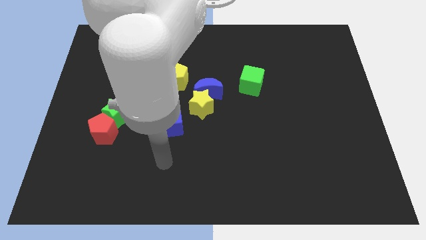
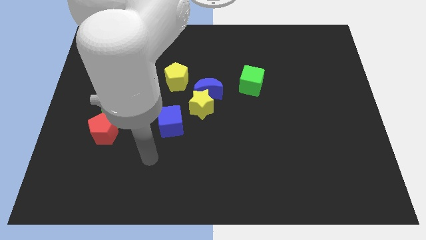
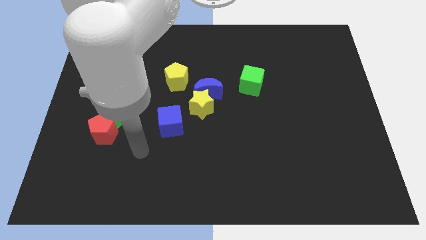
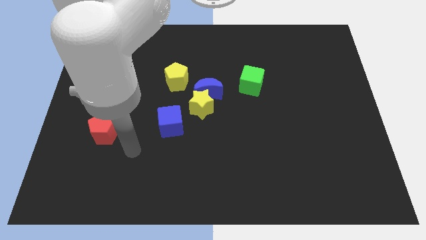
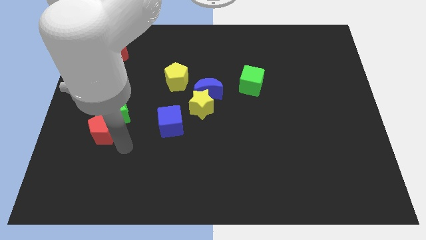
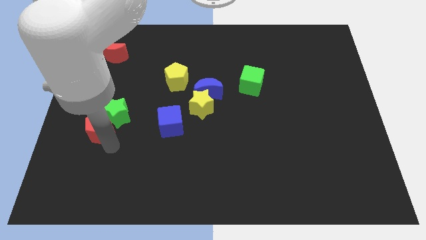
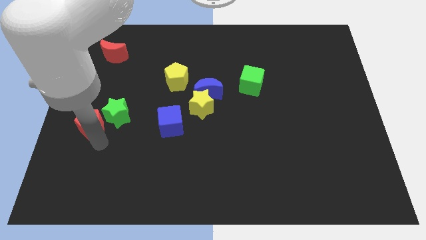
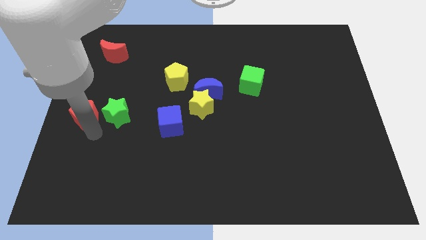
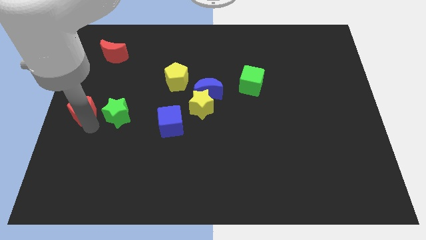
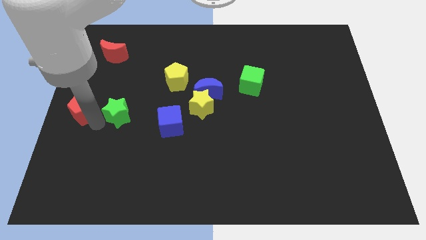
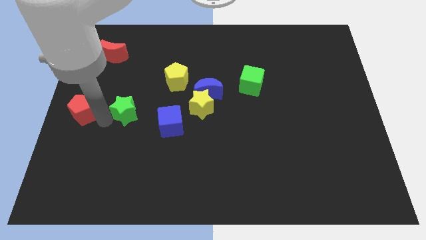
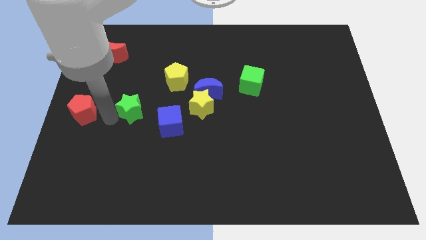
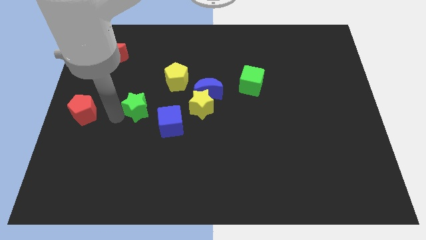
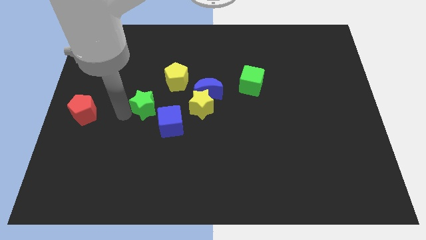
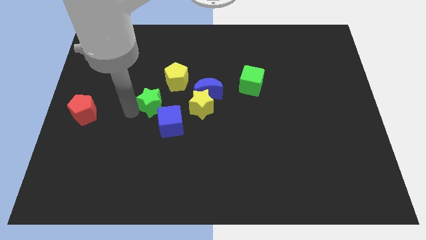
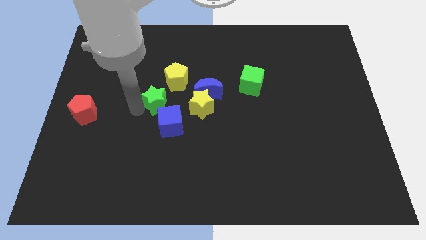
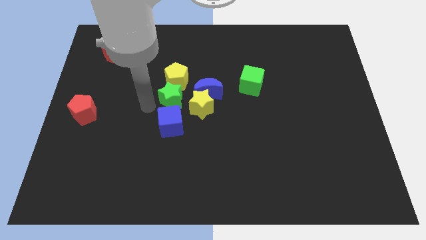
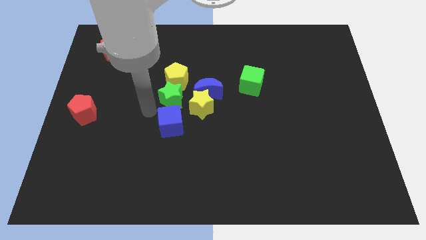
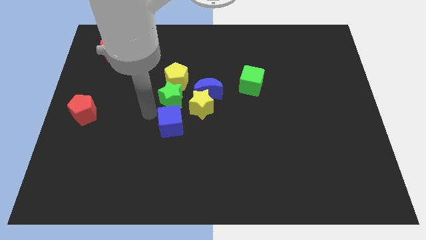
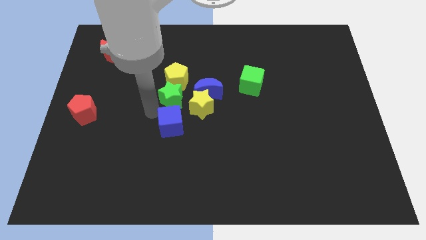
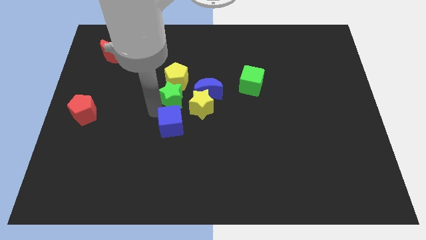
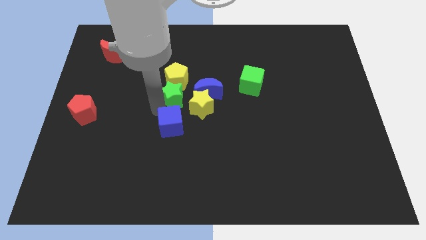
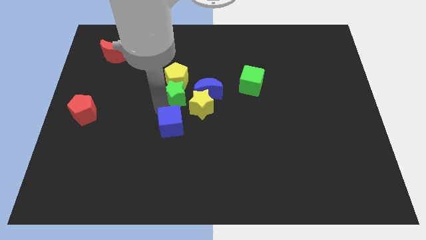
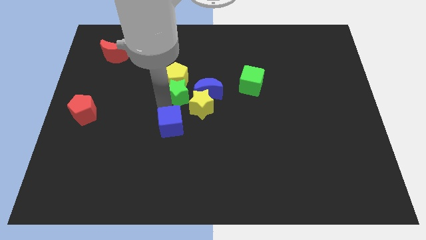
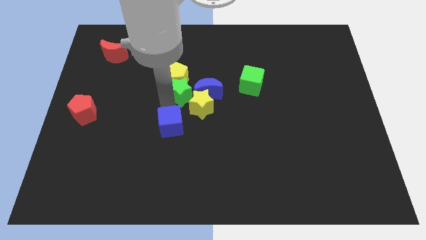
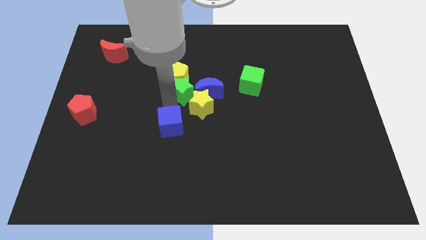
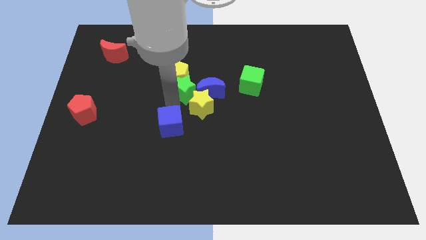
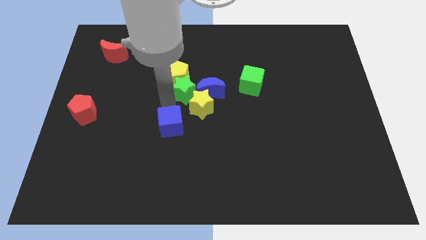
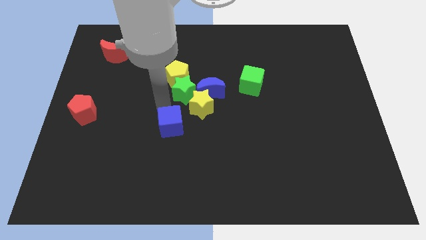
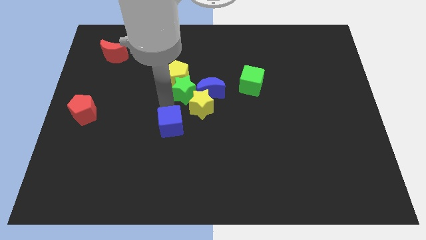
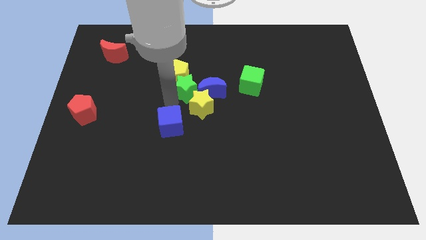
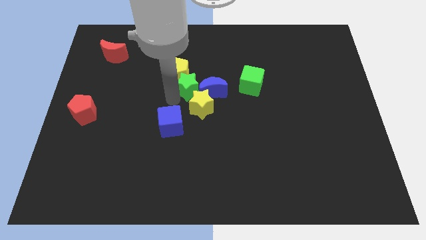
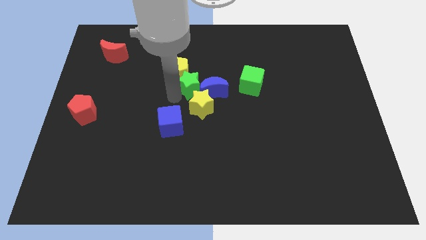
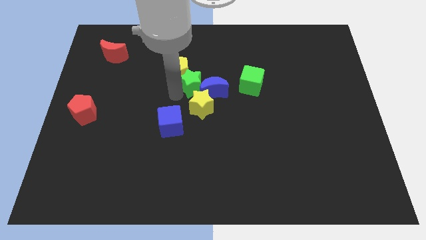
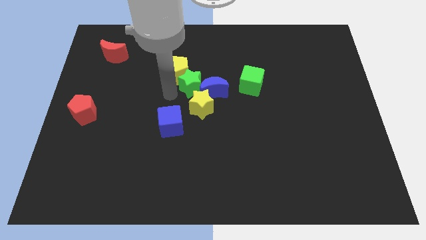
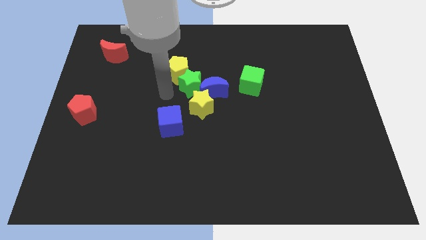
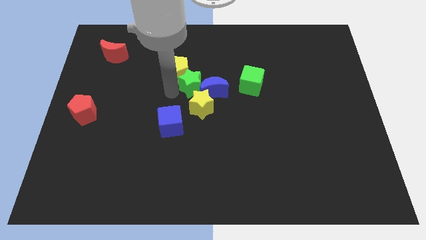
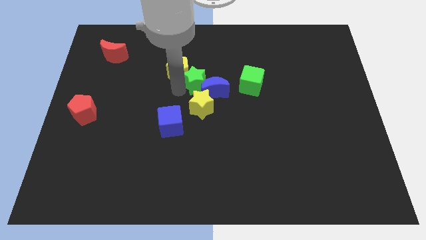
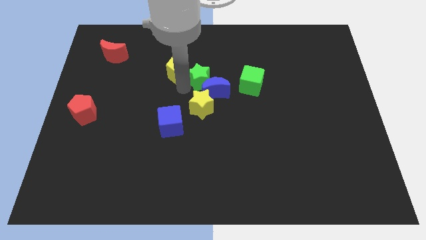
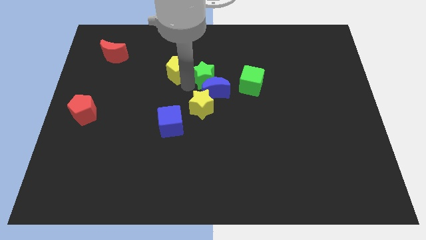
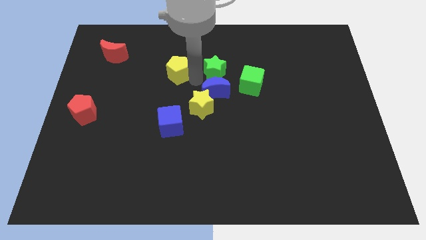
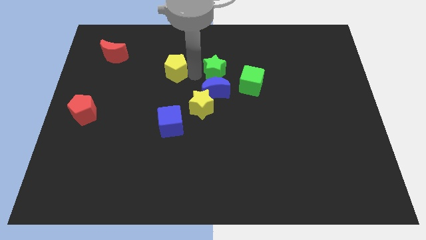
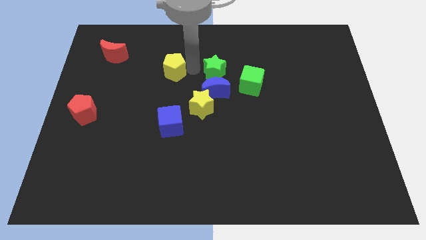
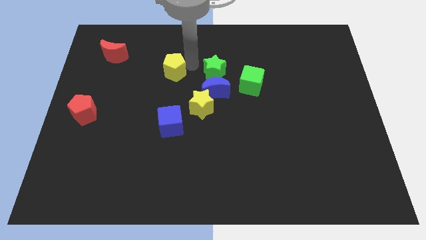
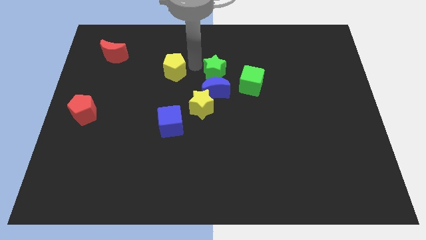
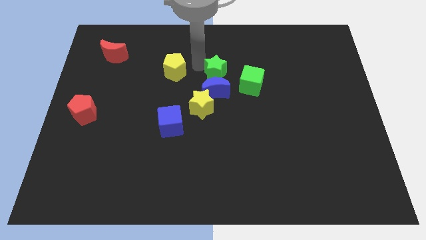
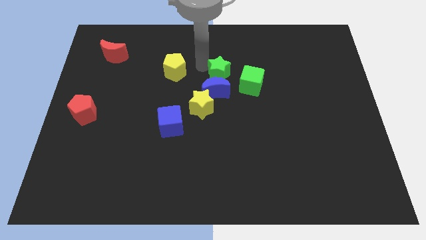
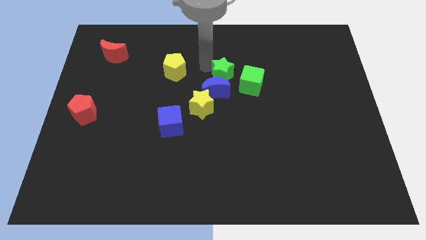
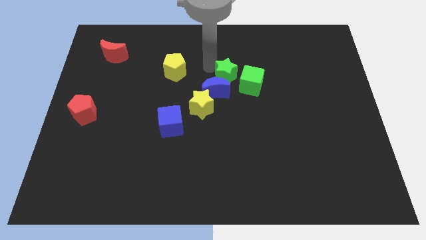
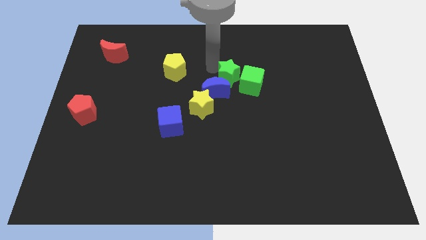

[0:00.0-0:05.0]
push the green star to the green cube

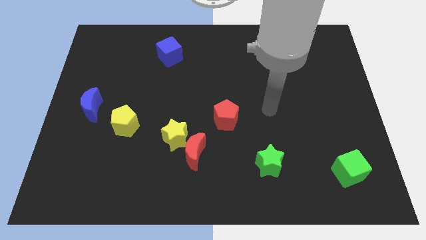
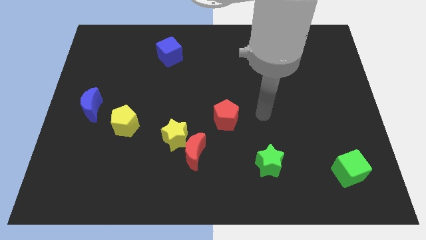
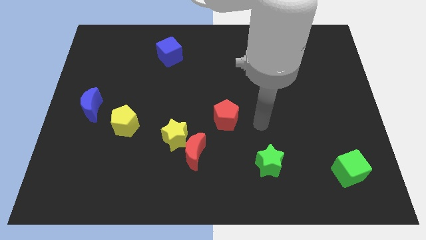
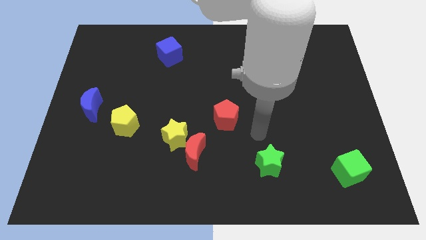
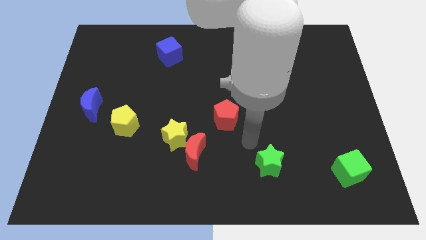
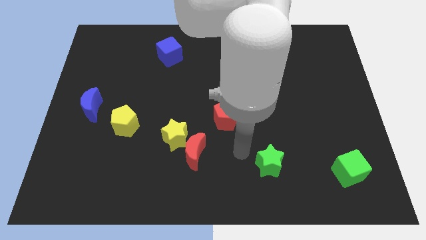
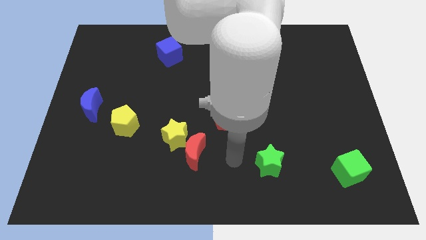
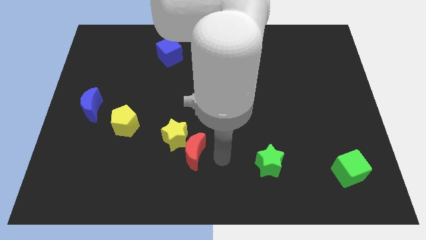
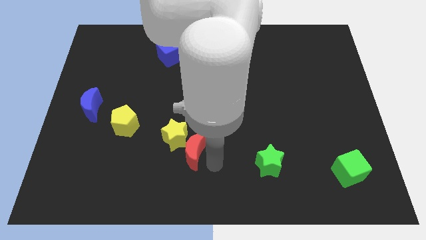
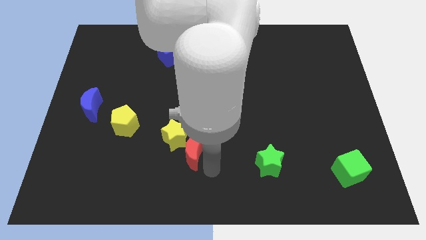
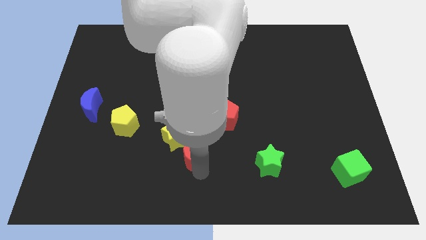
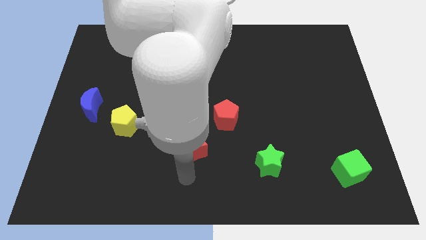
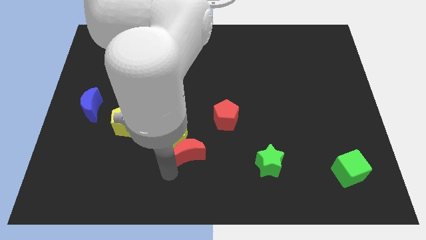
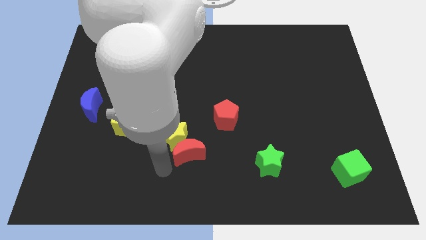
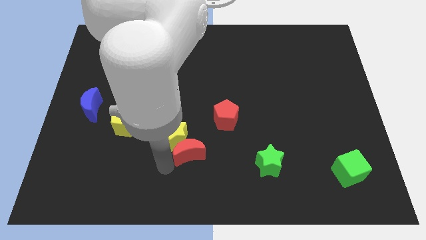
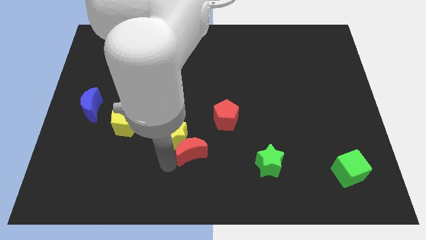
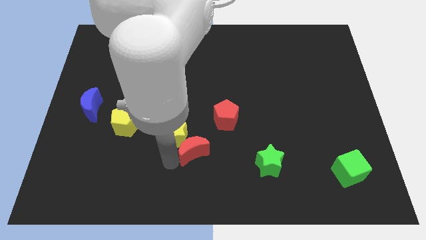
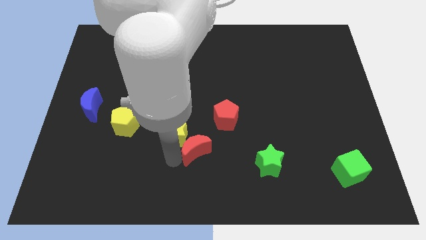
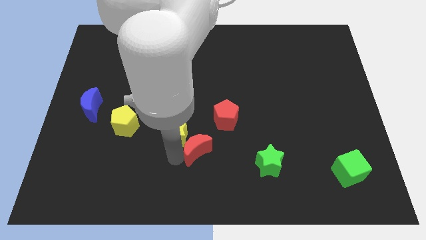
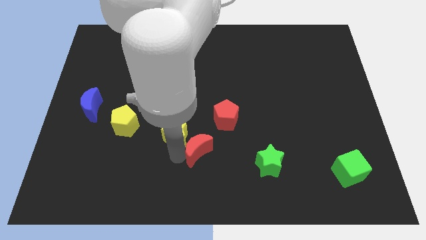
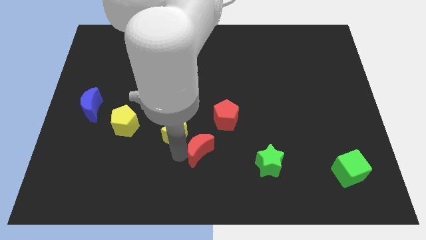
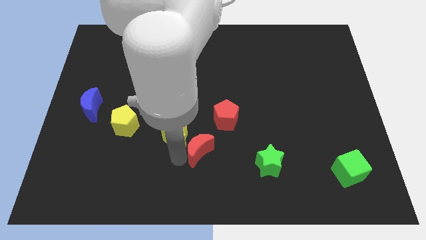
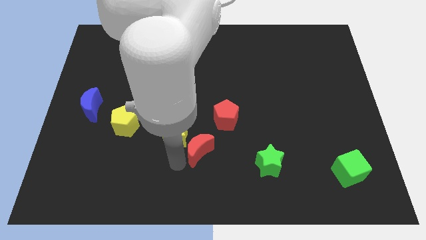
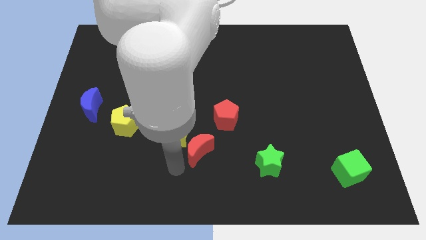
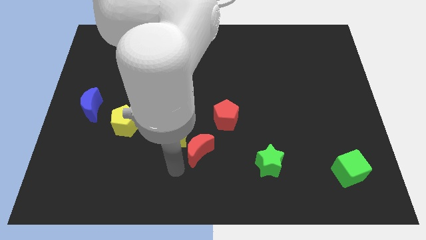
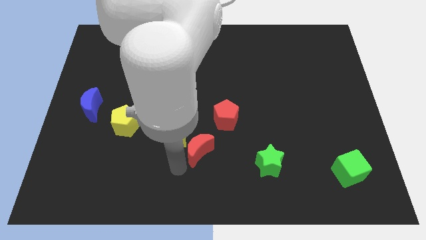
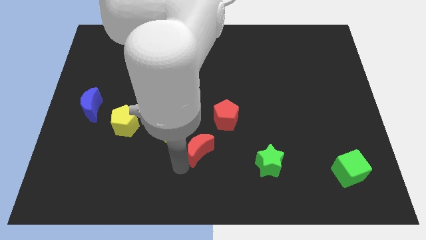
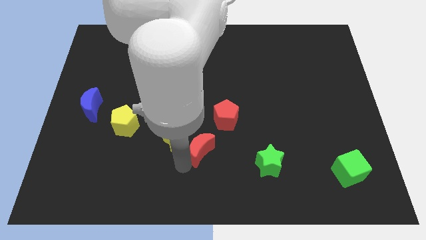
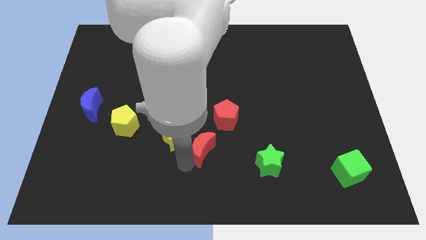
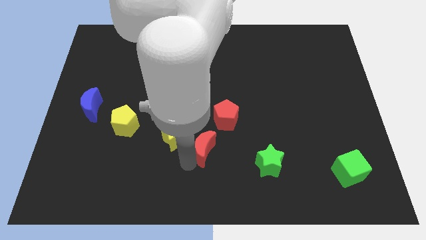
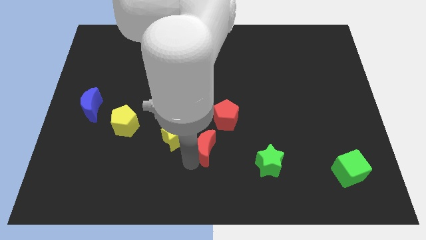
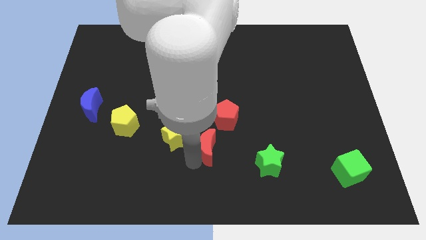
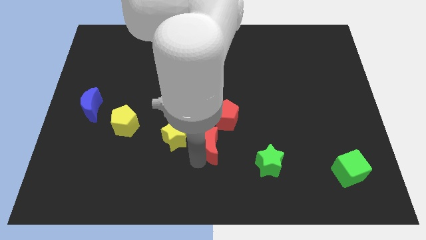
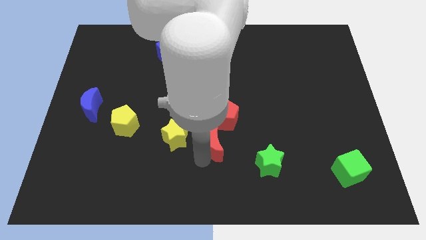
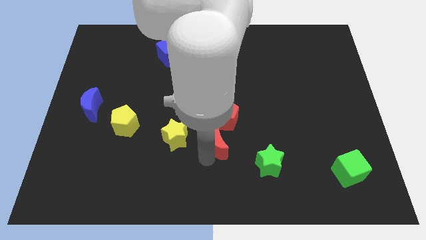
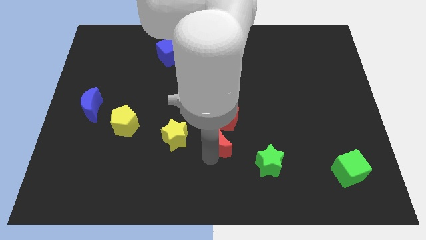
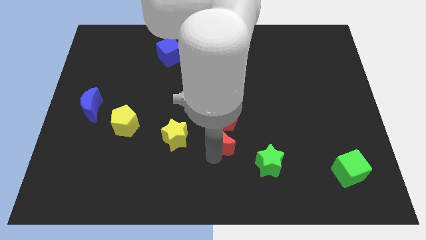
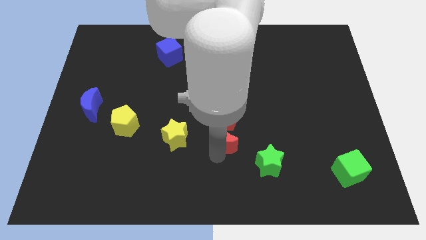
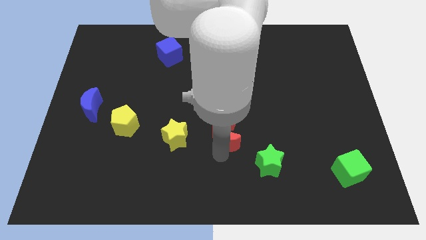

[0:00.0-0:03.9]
put the red moon next to the red pentagon
